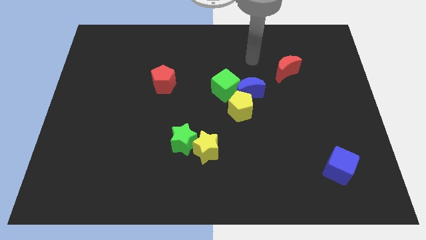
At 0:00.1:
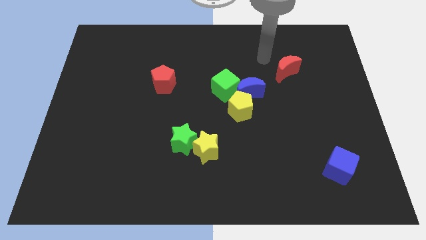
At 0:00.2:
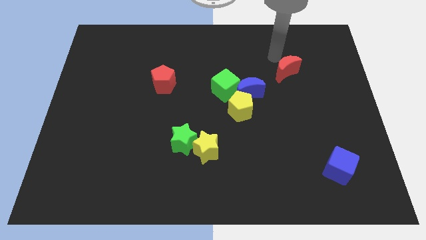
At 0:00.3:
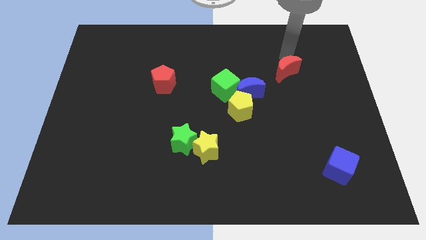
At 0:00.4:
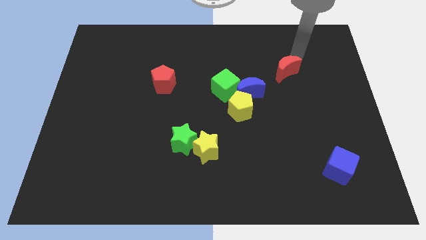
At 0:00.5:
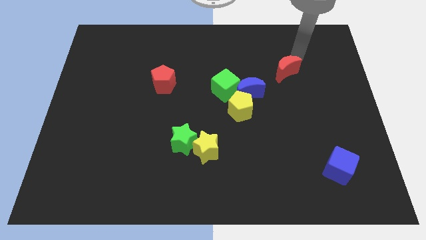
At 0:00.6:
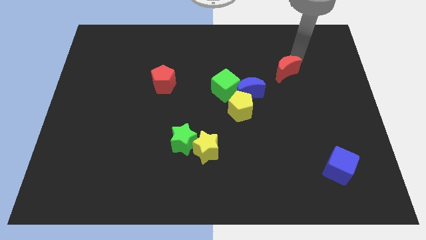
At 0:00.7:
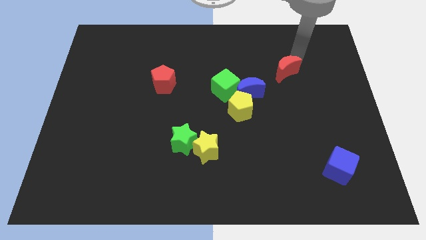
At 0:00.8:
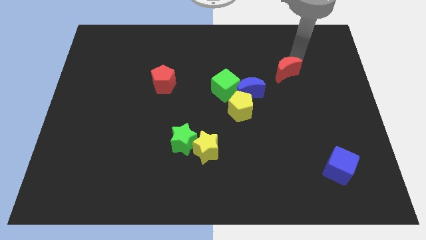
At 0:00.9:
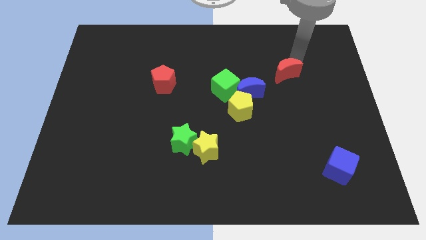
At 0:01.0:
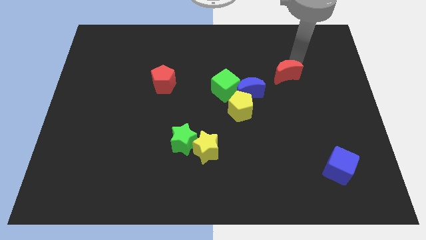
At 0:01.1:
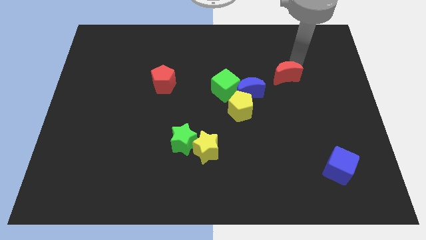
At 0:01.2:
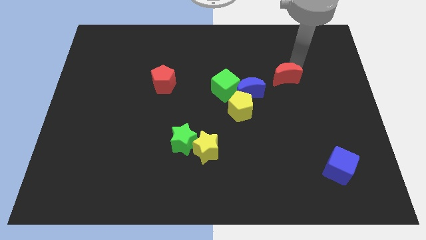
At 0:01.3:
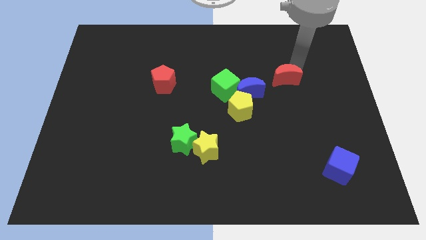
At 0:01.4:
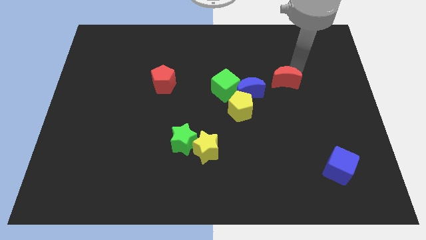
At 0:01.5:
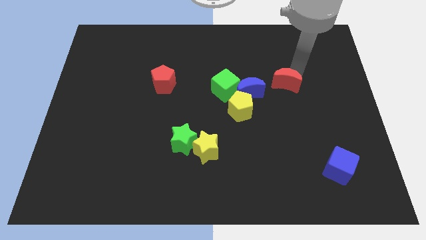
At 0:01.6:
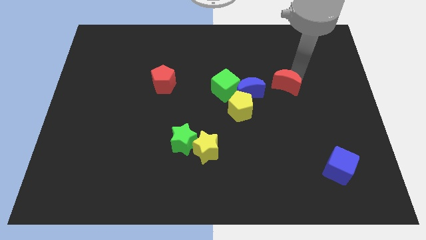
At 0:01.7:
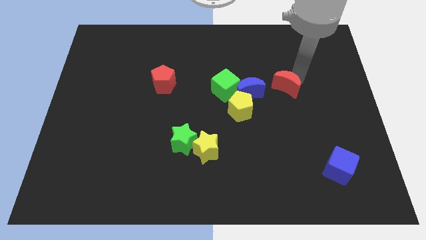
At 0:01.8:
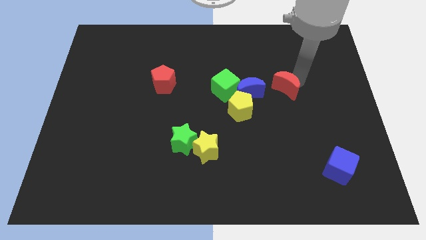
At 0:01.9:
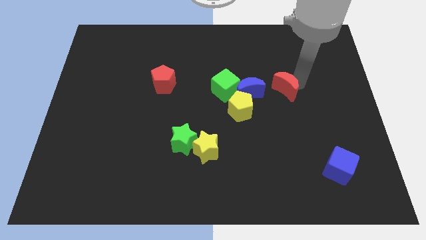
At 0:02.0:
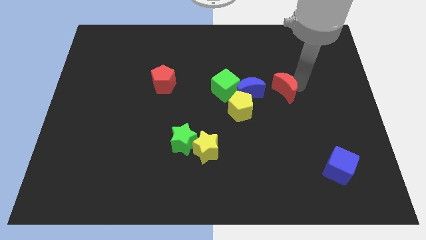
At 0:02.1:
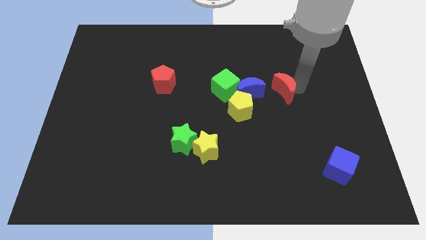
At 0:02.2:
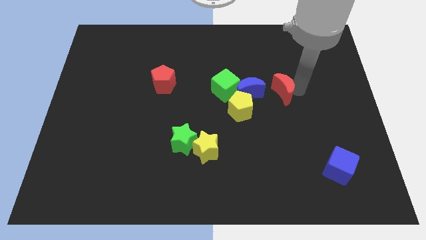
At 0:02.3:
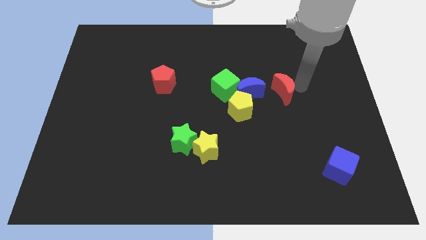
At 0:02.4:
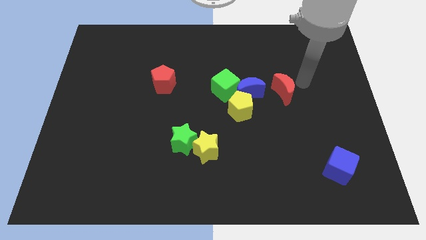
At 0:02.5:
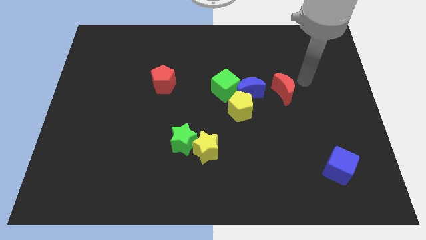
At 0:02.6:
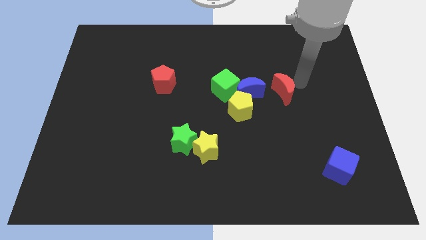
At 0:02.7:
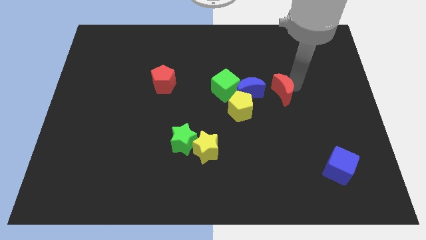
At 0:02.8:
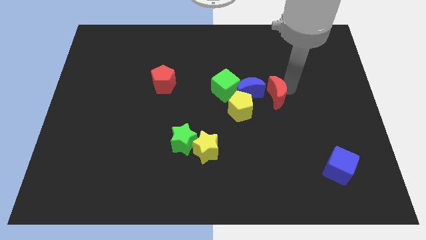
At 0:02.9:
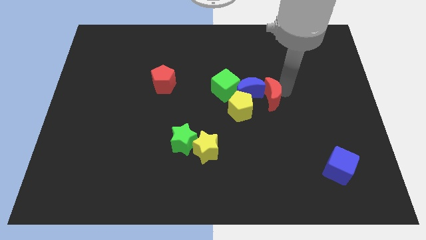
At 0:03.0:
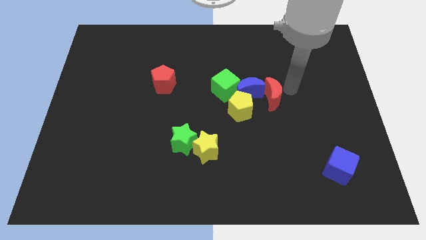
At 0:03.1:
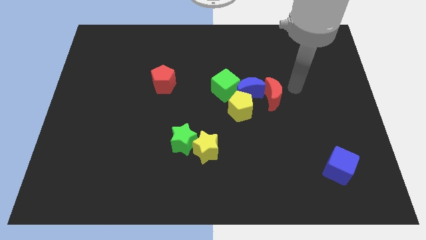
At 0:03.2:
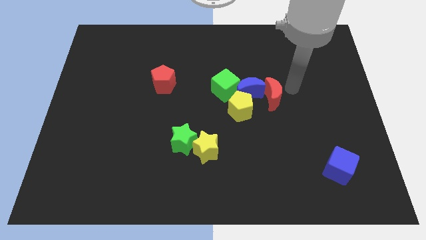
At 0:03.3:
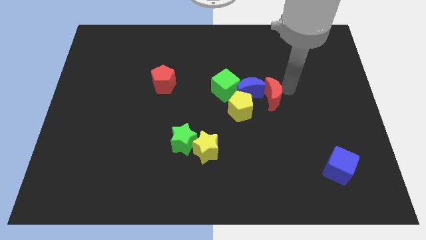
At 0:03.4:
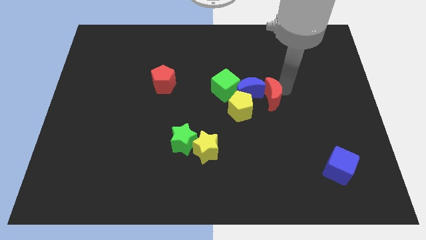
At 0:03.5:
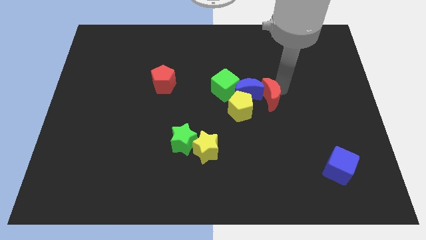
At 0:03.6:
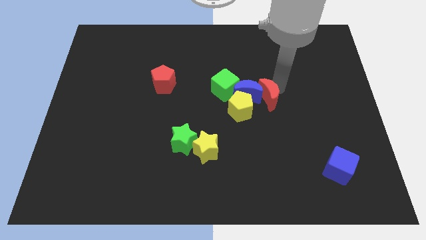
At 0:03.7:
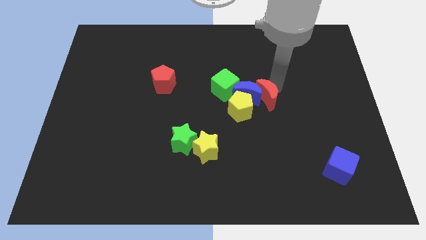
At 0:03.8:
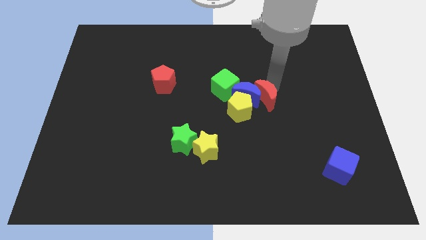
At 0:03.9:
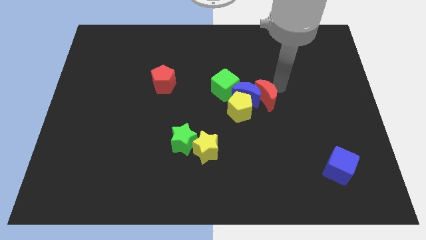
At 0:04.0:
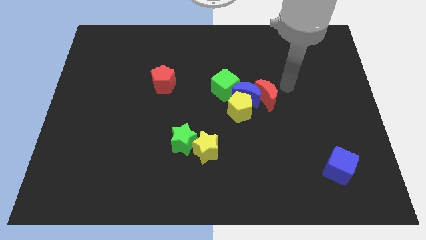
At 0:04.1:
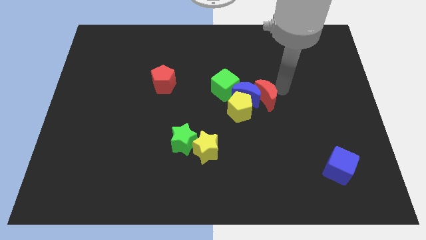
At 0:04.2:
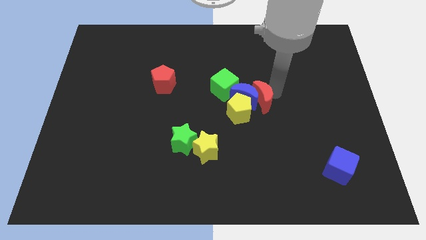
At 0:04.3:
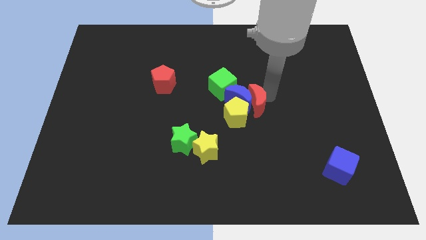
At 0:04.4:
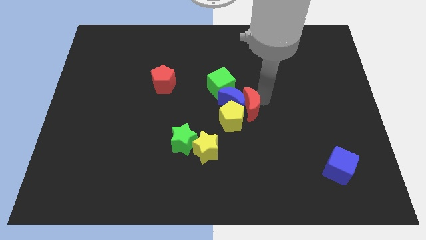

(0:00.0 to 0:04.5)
put the red moon next to the yellow pentagon

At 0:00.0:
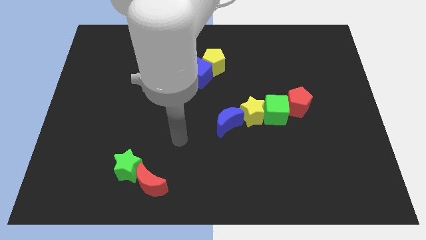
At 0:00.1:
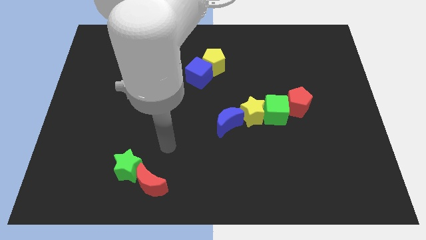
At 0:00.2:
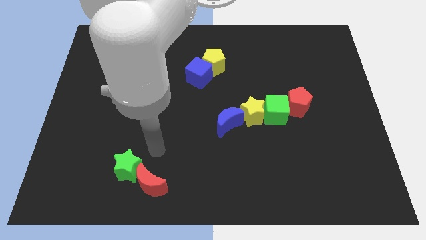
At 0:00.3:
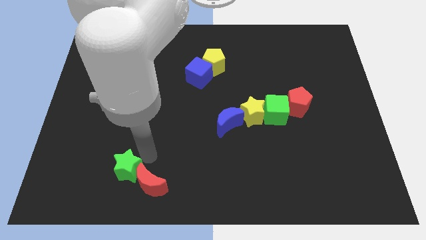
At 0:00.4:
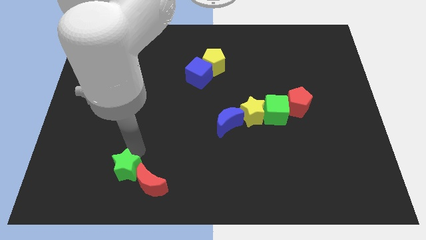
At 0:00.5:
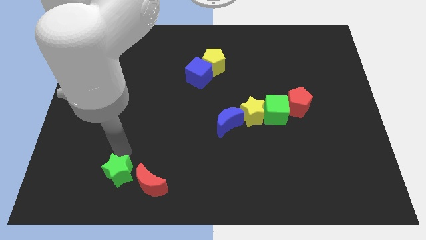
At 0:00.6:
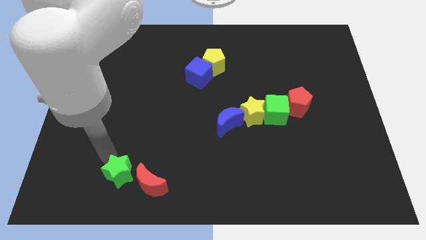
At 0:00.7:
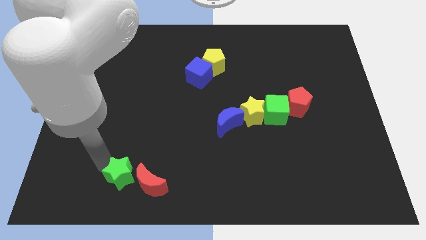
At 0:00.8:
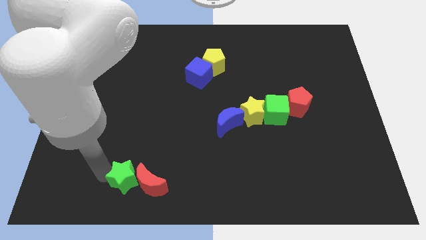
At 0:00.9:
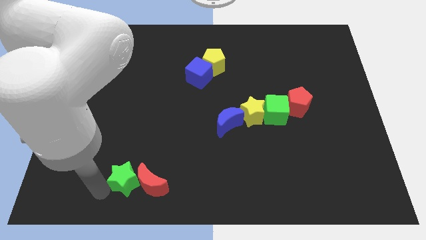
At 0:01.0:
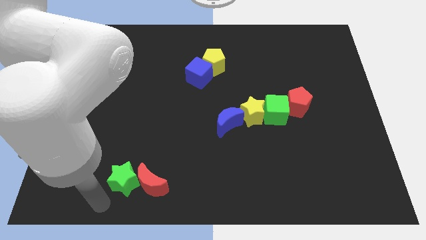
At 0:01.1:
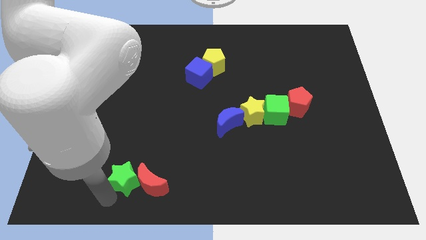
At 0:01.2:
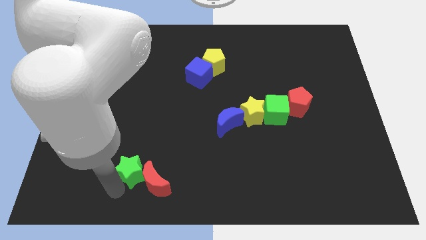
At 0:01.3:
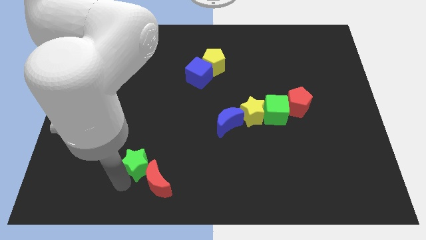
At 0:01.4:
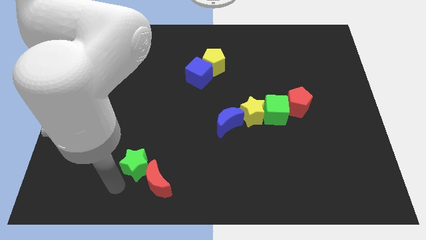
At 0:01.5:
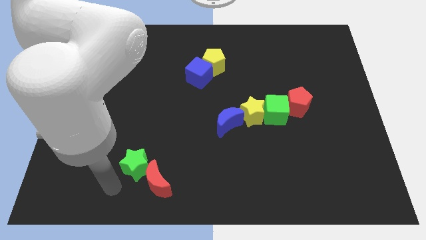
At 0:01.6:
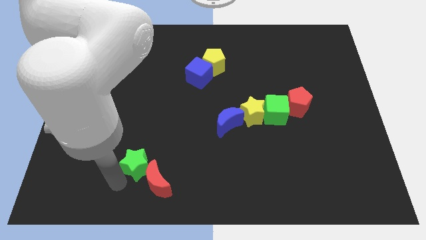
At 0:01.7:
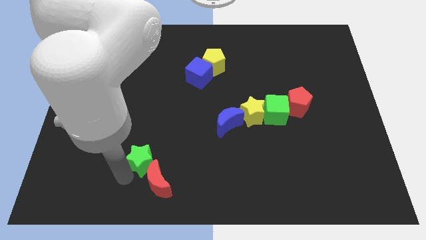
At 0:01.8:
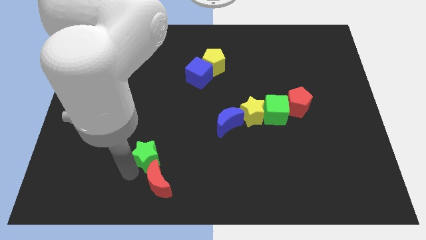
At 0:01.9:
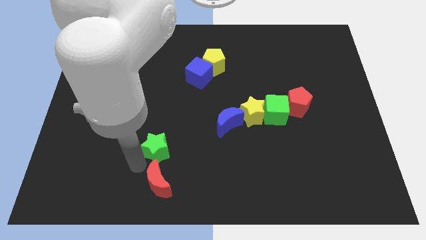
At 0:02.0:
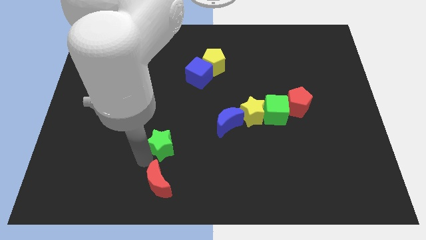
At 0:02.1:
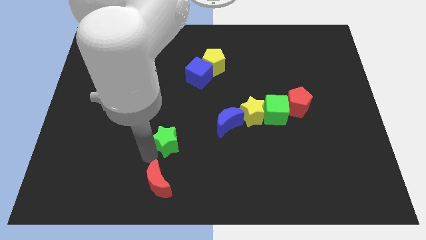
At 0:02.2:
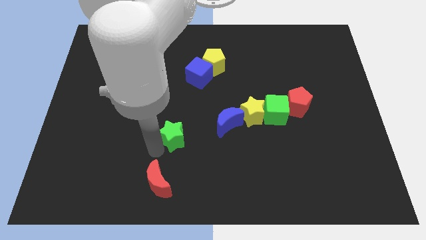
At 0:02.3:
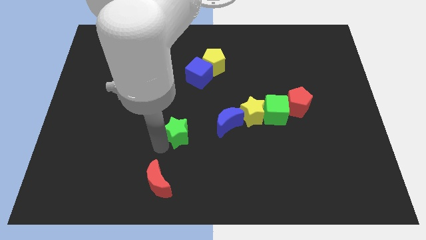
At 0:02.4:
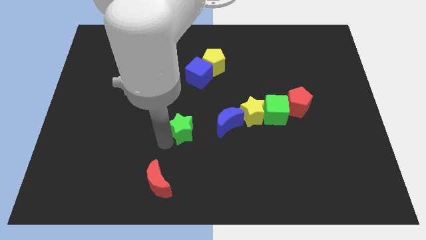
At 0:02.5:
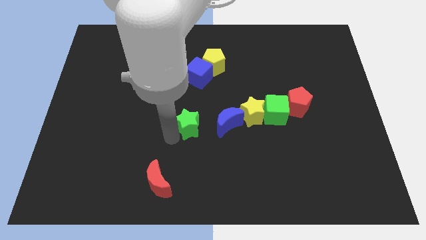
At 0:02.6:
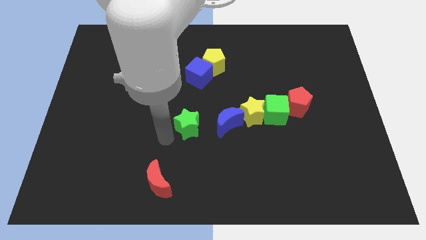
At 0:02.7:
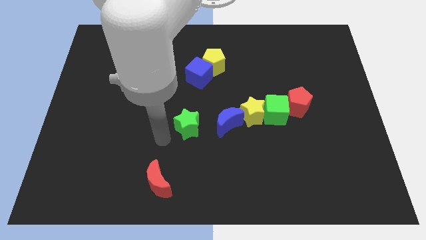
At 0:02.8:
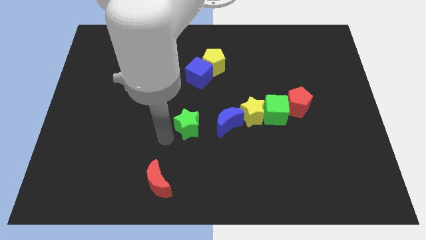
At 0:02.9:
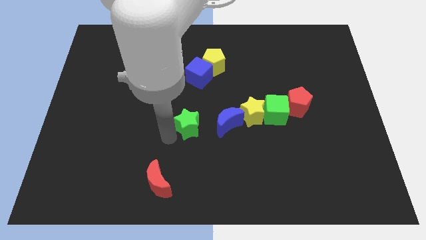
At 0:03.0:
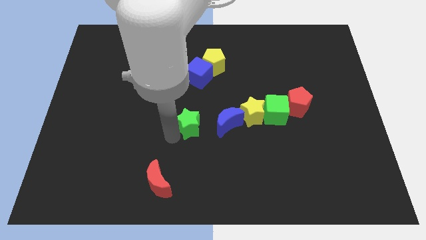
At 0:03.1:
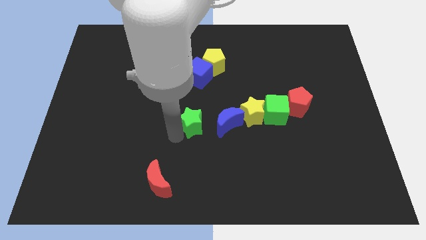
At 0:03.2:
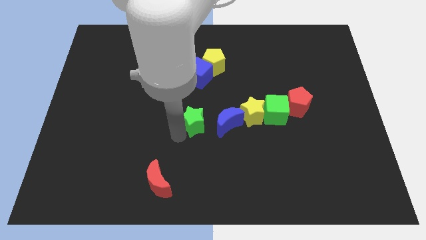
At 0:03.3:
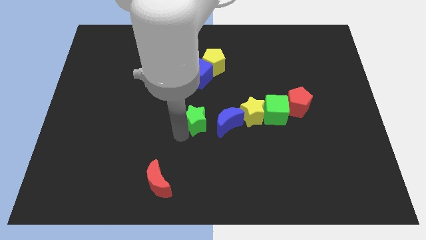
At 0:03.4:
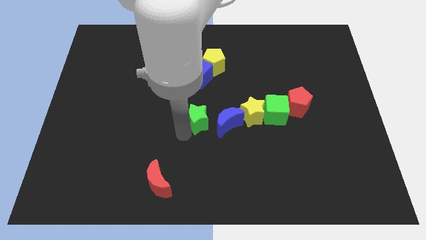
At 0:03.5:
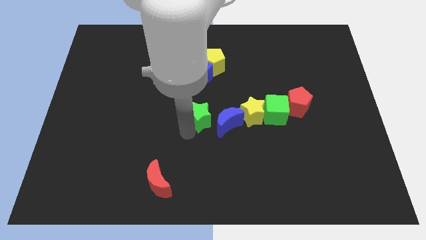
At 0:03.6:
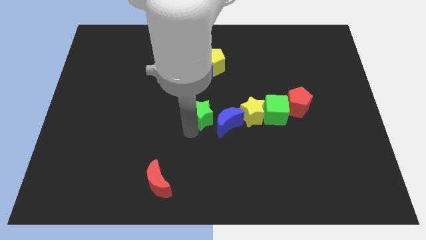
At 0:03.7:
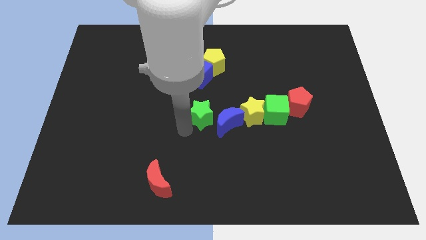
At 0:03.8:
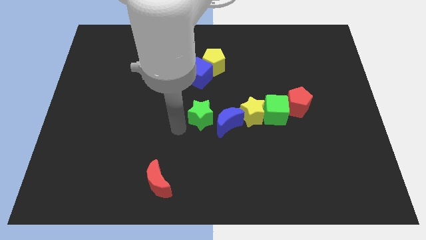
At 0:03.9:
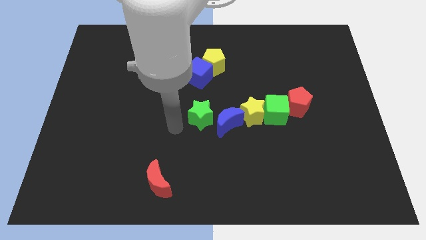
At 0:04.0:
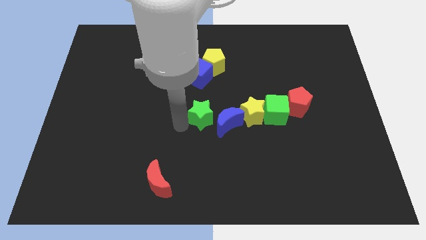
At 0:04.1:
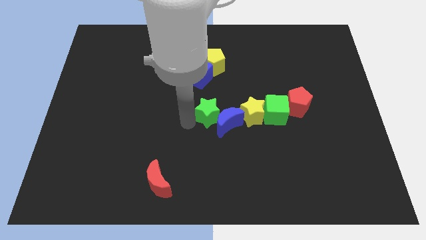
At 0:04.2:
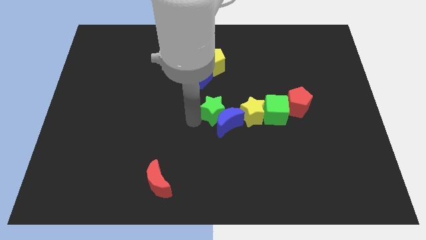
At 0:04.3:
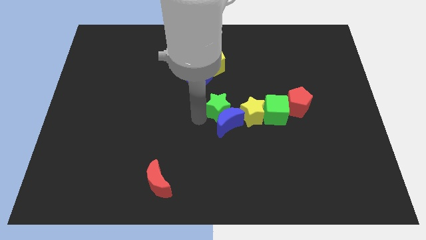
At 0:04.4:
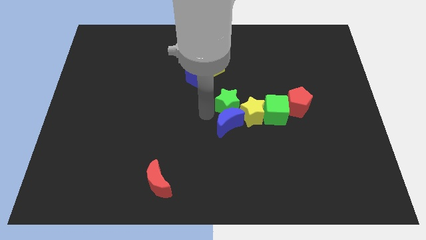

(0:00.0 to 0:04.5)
move the green star next to the yellow star
